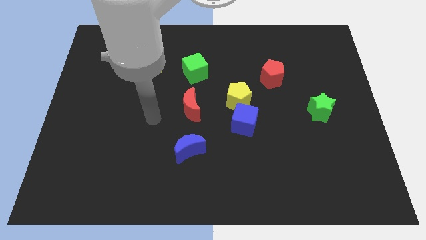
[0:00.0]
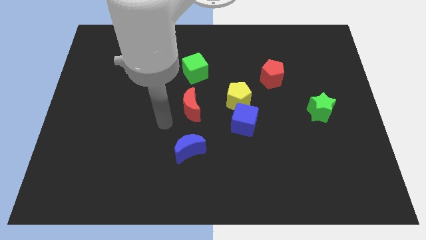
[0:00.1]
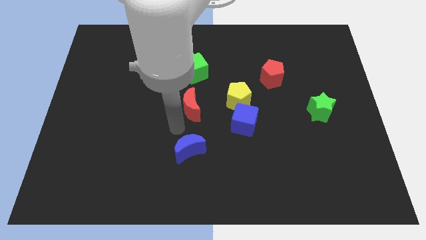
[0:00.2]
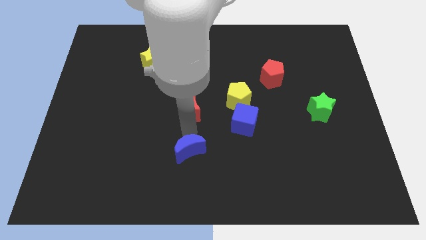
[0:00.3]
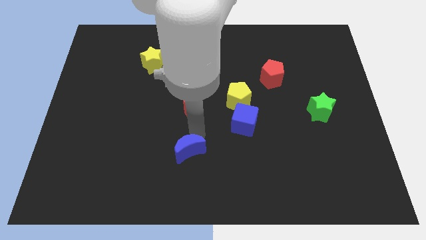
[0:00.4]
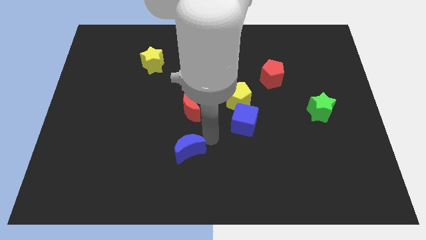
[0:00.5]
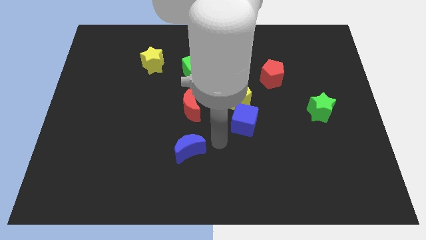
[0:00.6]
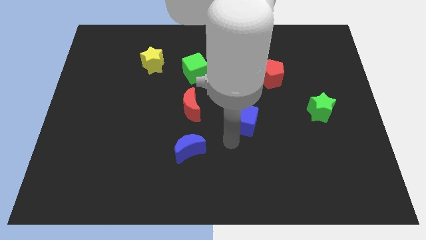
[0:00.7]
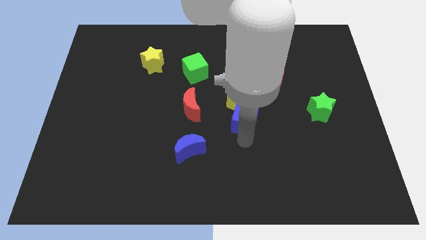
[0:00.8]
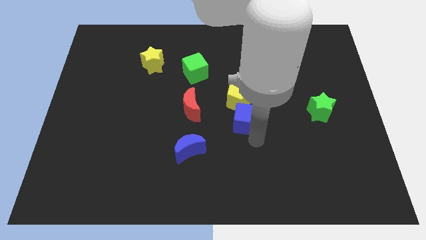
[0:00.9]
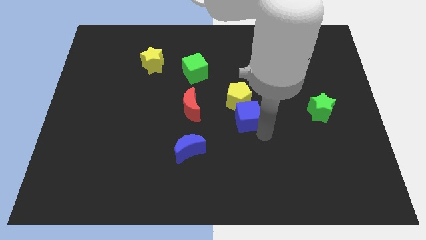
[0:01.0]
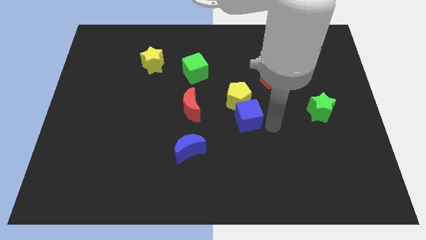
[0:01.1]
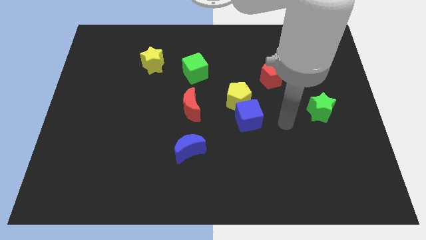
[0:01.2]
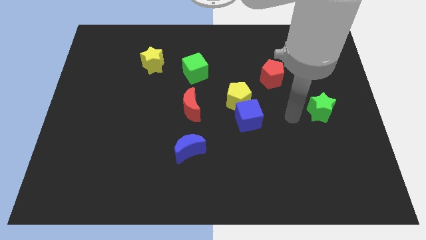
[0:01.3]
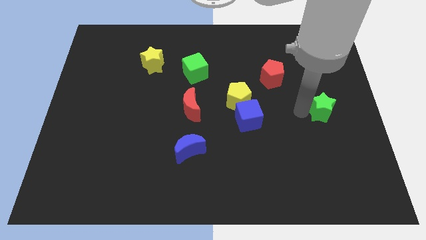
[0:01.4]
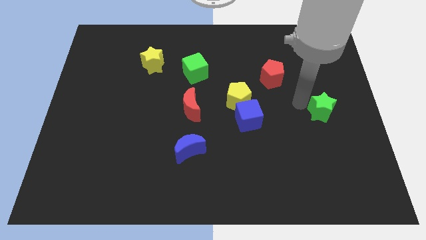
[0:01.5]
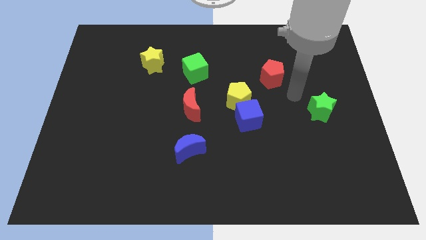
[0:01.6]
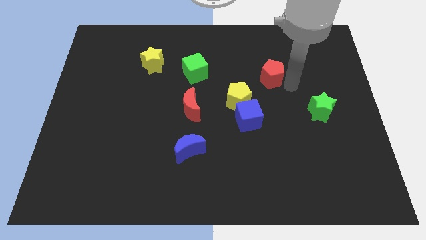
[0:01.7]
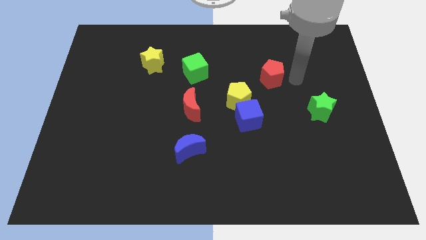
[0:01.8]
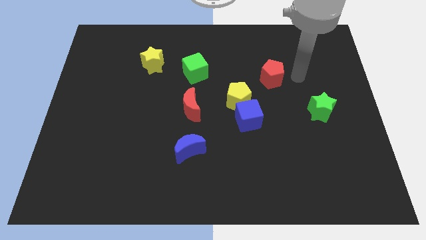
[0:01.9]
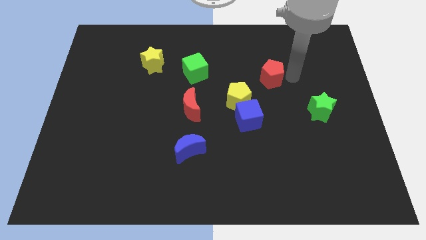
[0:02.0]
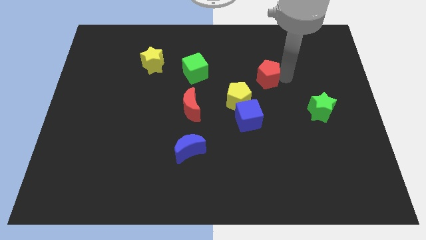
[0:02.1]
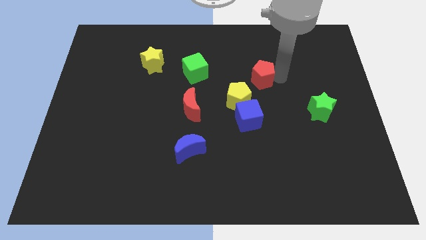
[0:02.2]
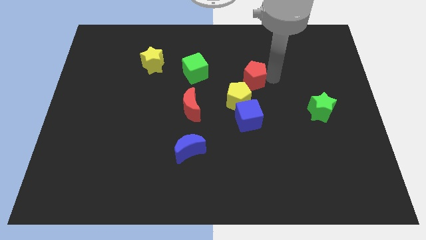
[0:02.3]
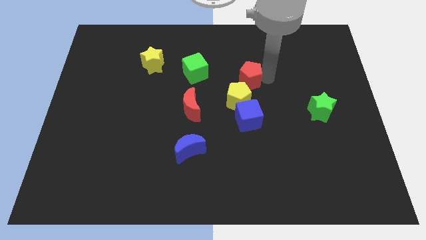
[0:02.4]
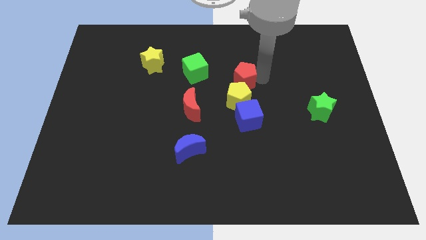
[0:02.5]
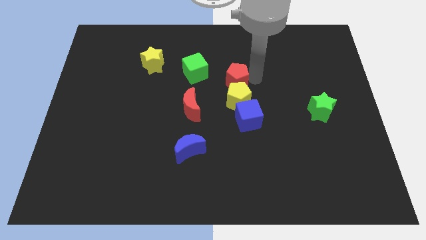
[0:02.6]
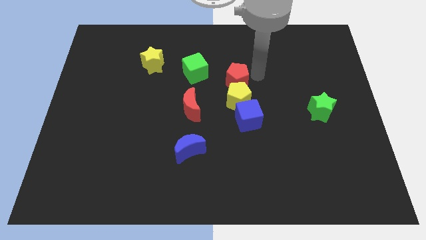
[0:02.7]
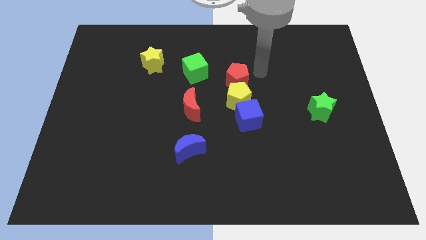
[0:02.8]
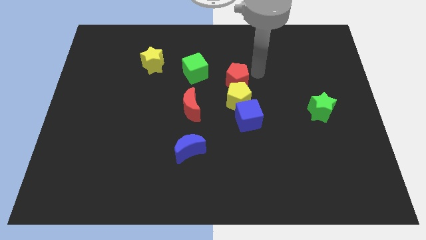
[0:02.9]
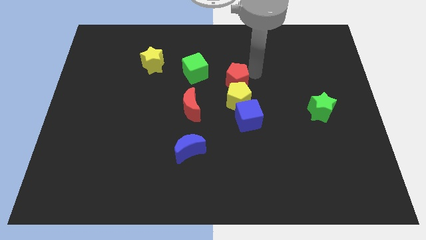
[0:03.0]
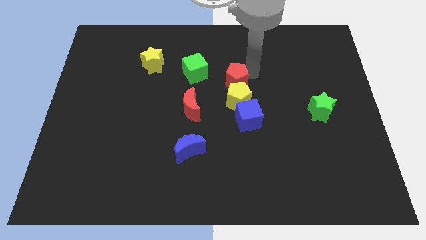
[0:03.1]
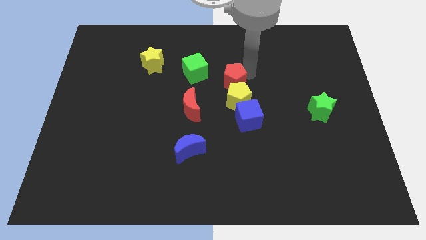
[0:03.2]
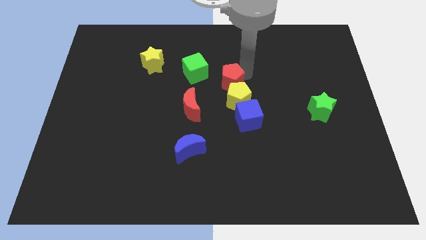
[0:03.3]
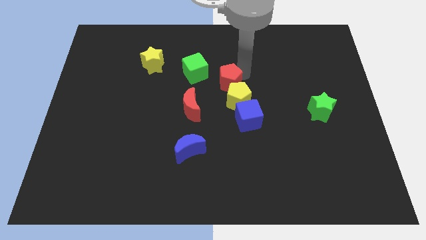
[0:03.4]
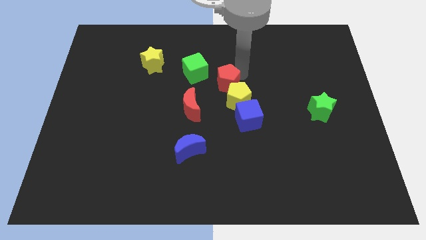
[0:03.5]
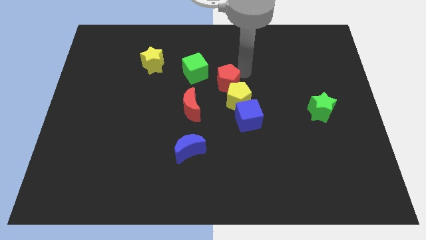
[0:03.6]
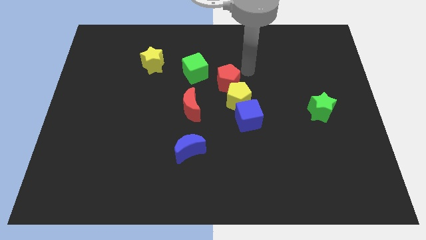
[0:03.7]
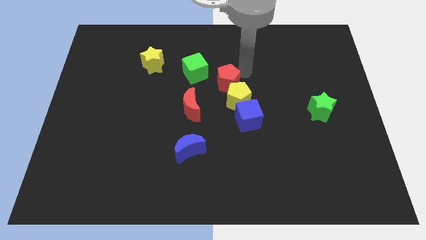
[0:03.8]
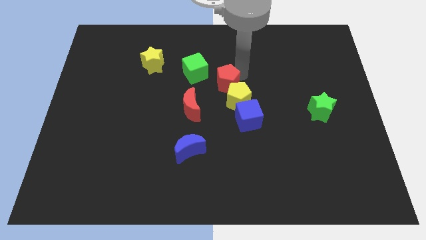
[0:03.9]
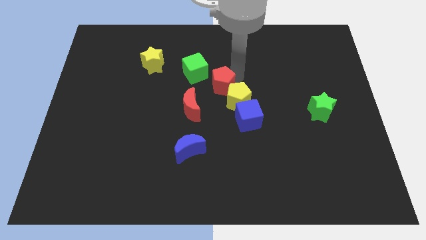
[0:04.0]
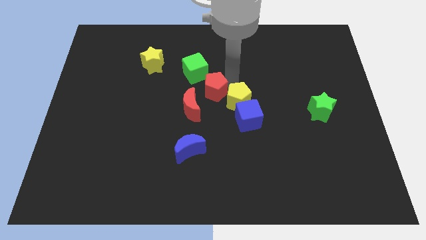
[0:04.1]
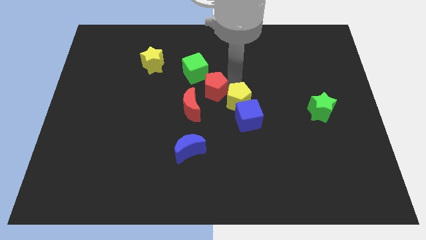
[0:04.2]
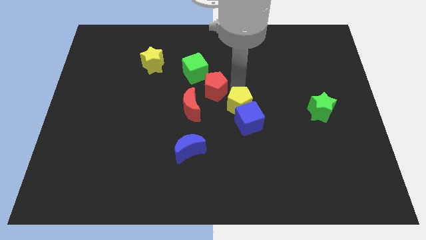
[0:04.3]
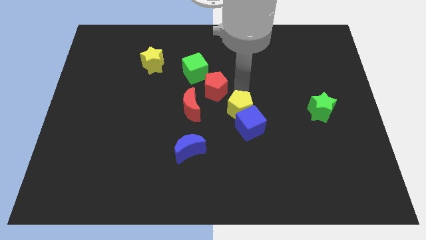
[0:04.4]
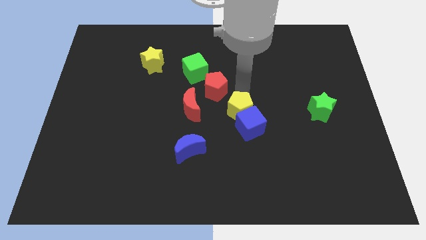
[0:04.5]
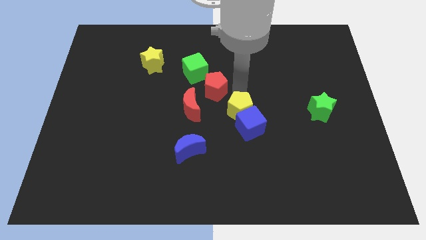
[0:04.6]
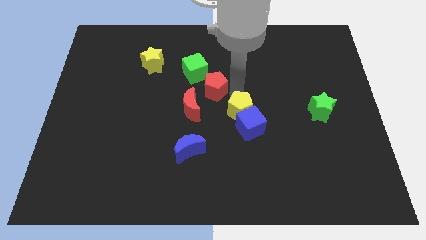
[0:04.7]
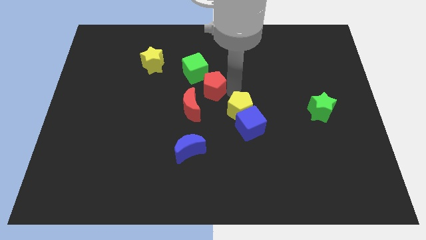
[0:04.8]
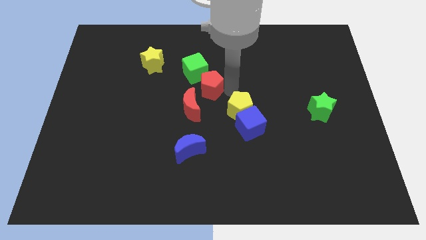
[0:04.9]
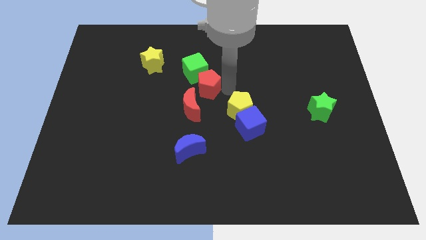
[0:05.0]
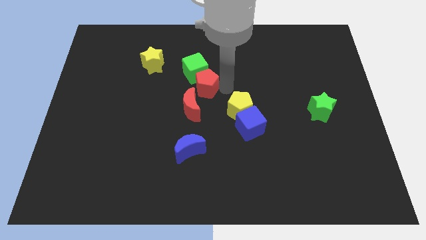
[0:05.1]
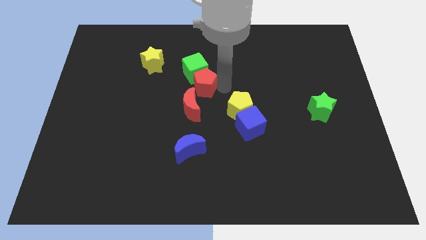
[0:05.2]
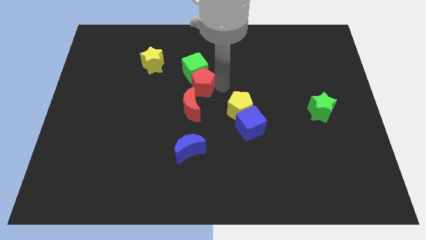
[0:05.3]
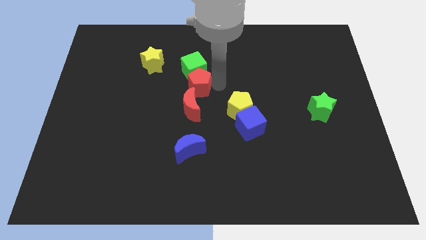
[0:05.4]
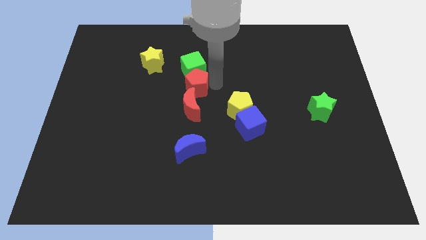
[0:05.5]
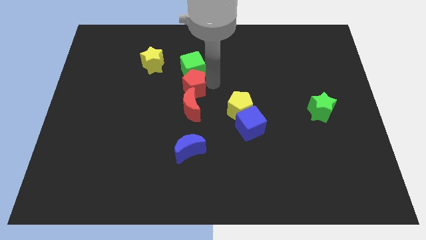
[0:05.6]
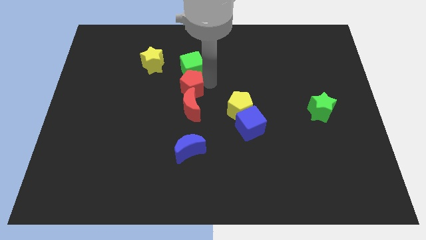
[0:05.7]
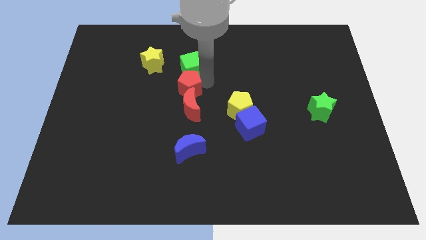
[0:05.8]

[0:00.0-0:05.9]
push the red pentagon left

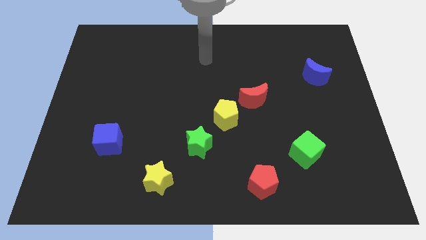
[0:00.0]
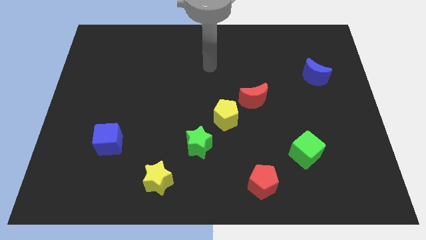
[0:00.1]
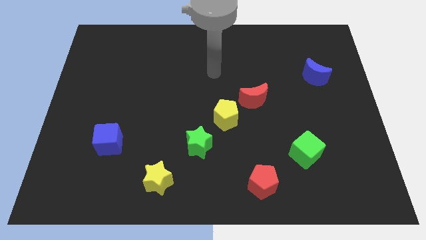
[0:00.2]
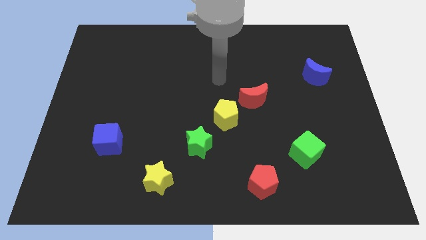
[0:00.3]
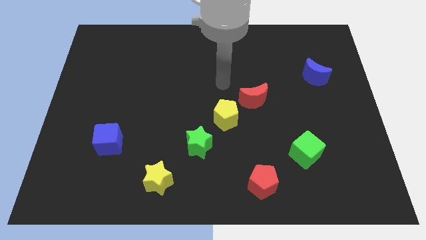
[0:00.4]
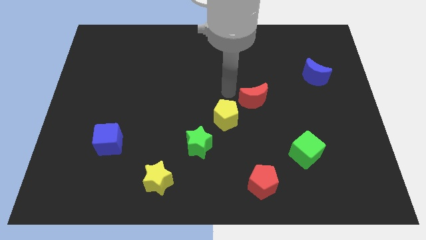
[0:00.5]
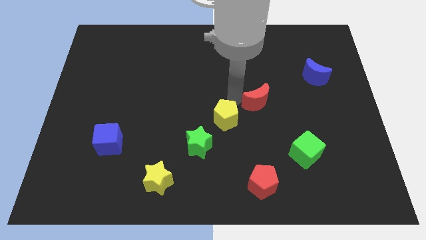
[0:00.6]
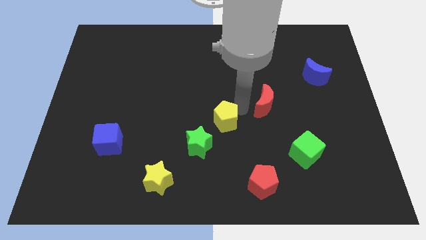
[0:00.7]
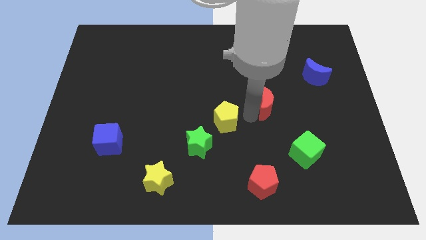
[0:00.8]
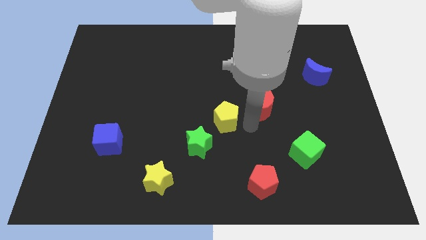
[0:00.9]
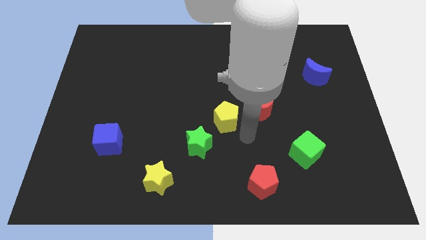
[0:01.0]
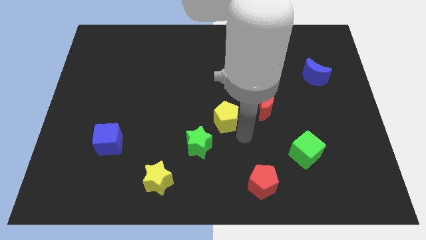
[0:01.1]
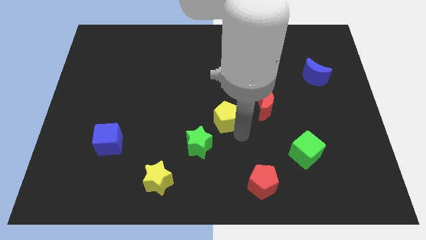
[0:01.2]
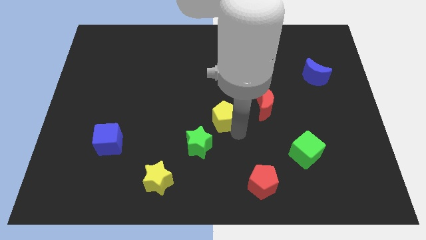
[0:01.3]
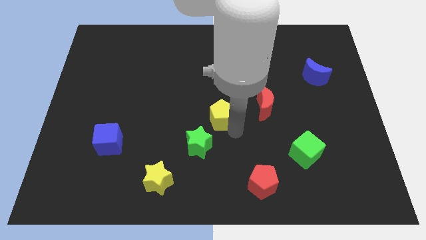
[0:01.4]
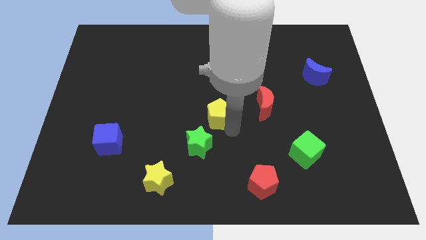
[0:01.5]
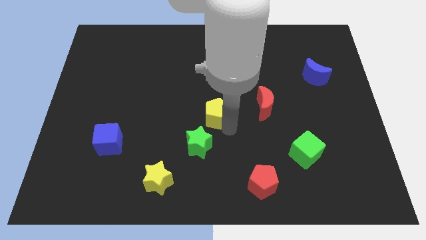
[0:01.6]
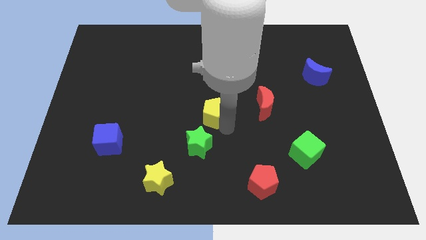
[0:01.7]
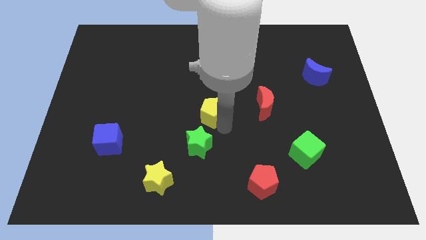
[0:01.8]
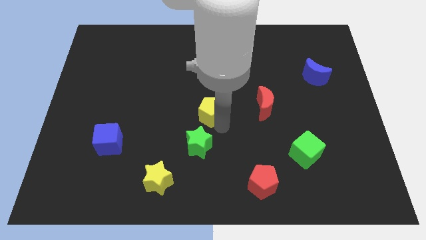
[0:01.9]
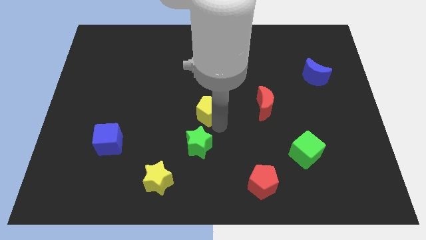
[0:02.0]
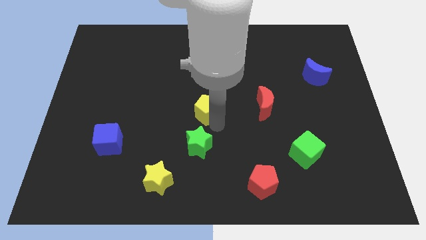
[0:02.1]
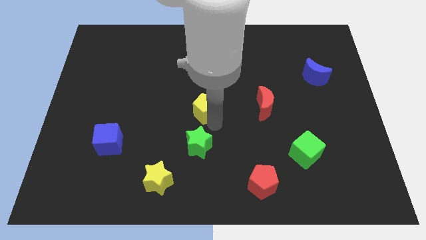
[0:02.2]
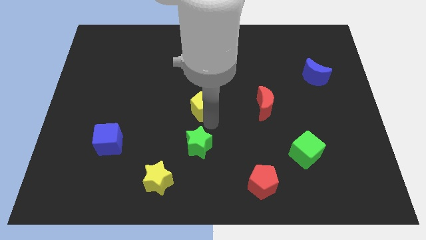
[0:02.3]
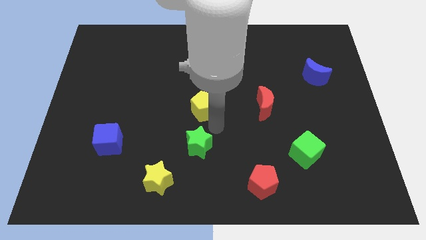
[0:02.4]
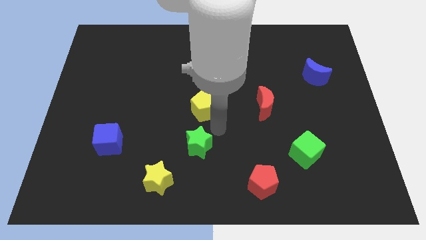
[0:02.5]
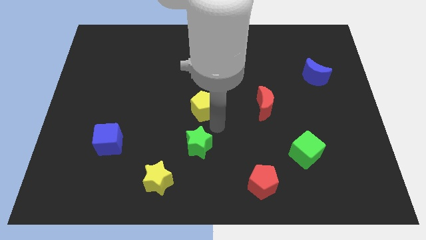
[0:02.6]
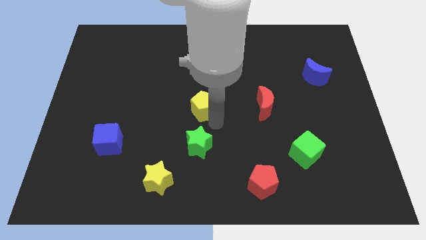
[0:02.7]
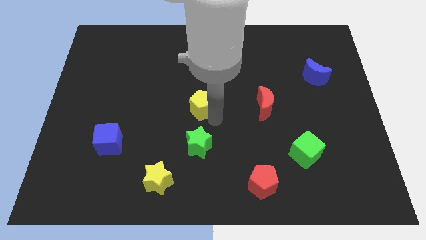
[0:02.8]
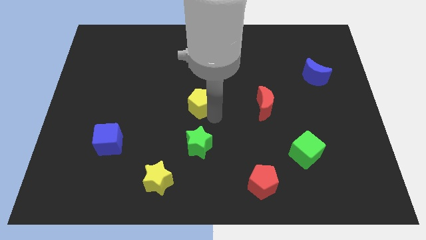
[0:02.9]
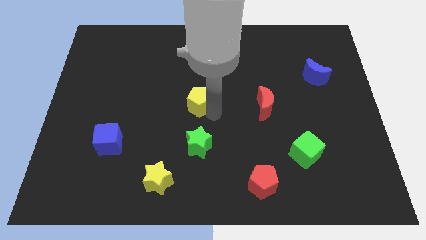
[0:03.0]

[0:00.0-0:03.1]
slightly move the yellow pentagon upwards and left diagonally
